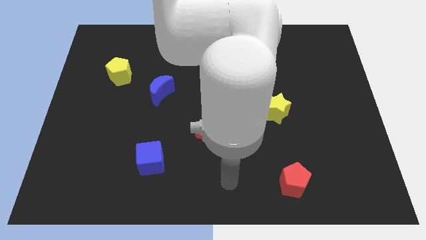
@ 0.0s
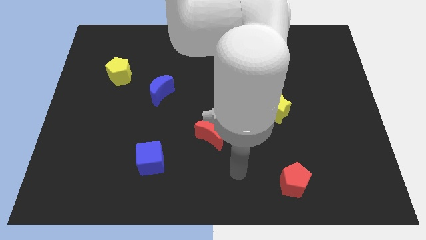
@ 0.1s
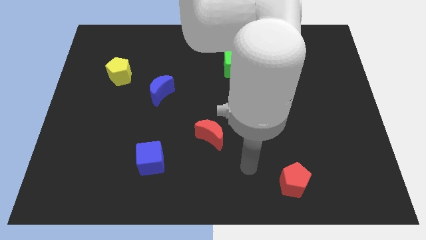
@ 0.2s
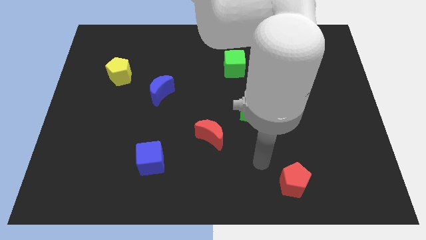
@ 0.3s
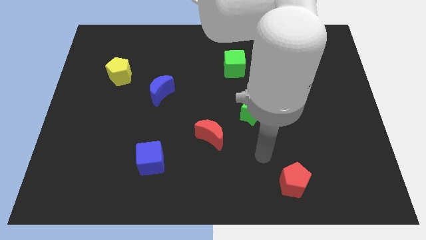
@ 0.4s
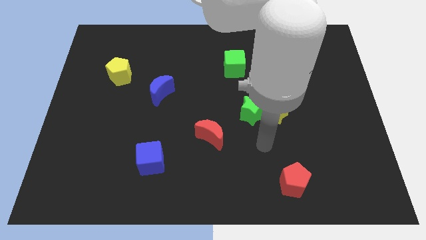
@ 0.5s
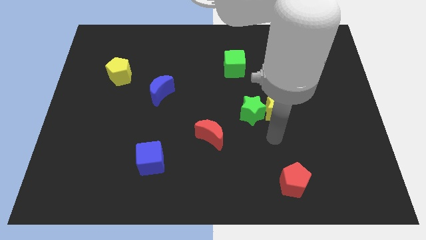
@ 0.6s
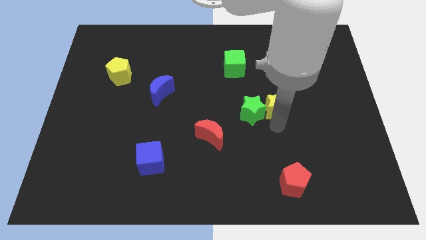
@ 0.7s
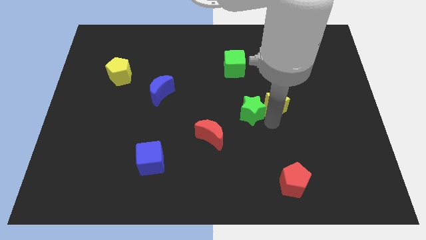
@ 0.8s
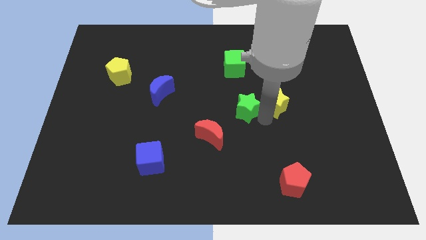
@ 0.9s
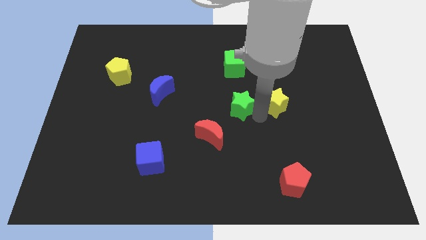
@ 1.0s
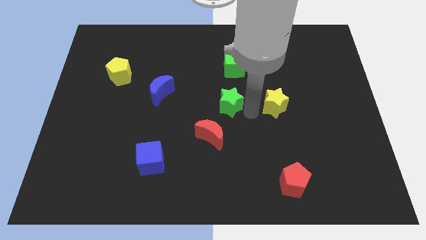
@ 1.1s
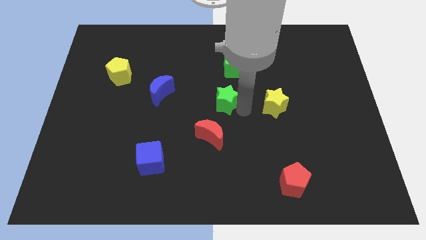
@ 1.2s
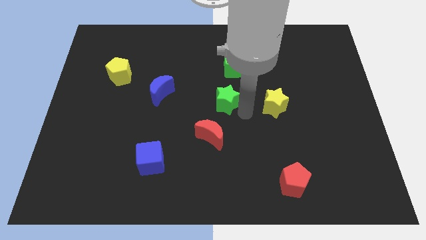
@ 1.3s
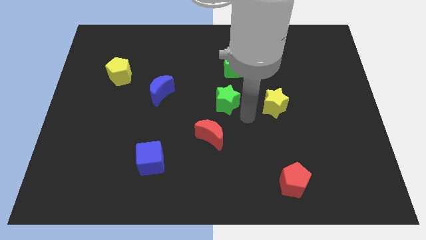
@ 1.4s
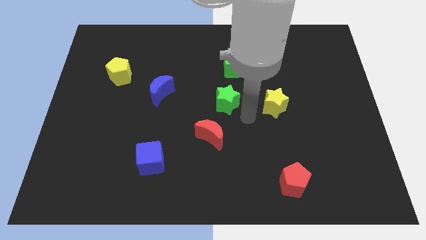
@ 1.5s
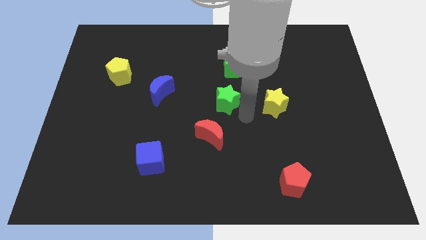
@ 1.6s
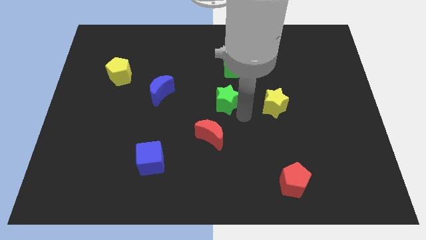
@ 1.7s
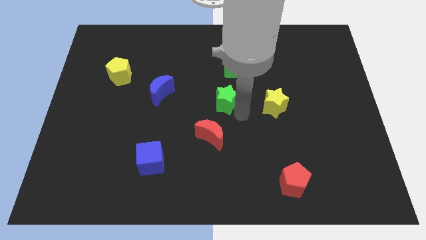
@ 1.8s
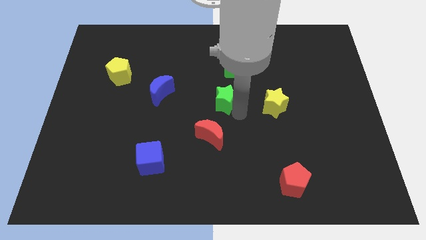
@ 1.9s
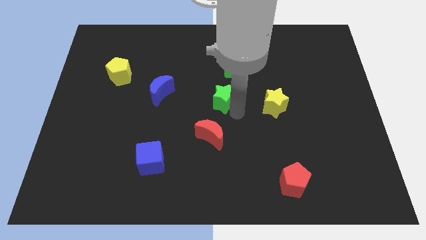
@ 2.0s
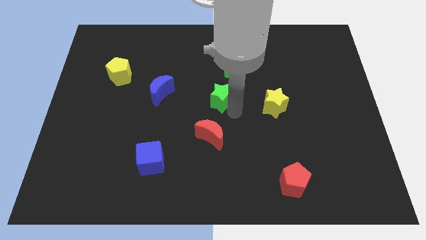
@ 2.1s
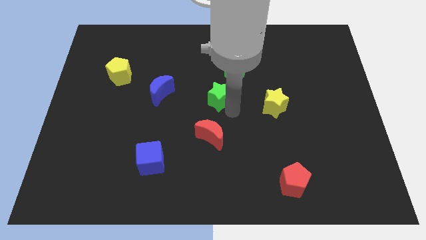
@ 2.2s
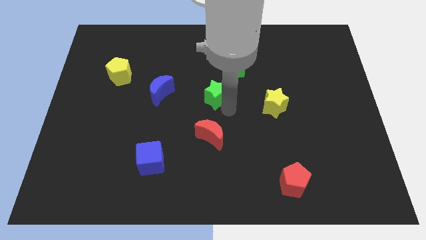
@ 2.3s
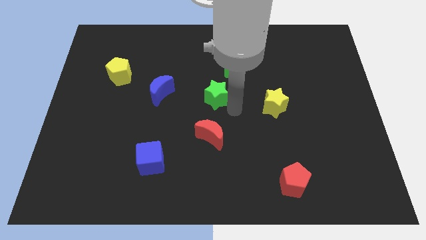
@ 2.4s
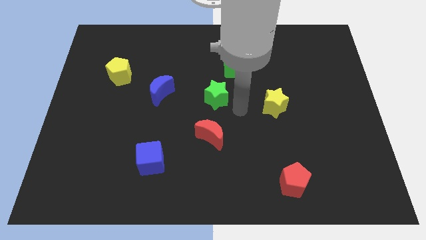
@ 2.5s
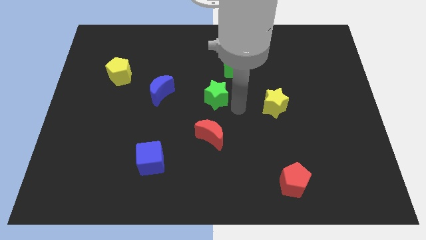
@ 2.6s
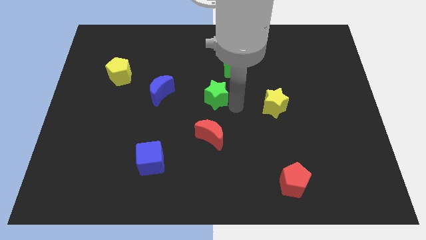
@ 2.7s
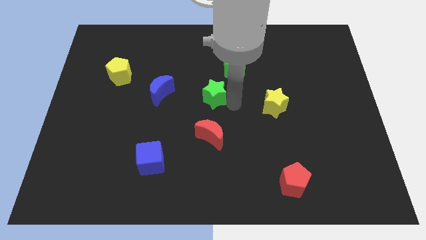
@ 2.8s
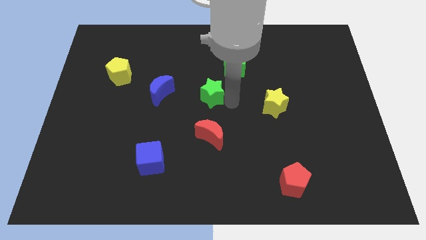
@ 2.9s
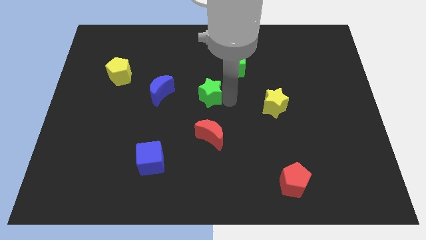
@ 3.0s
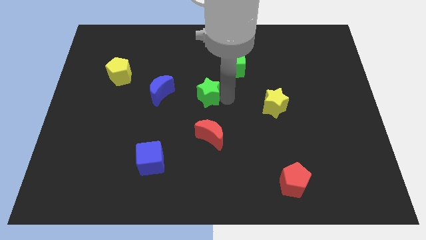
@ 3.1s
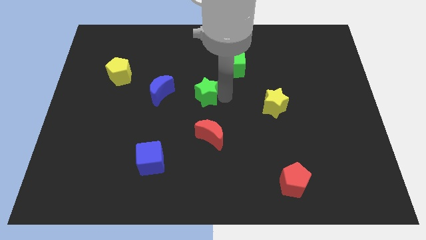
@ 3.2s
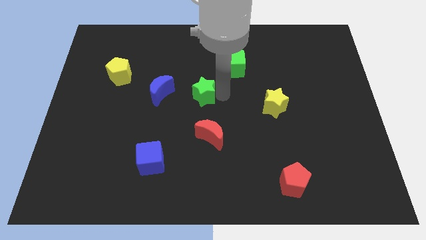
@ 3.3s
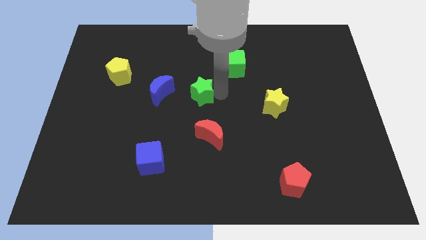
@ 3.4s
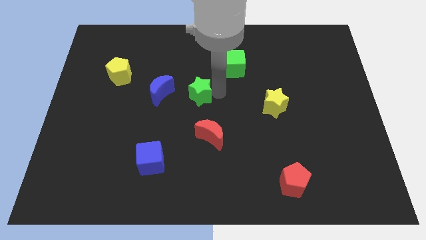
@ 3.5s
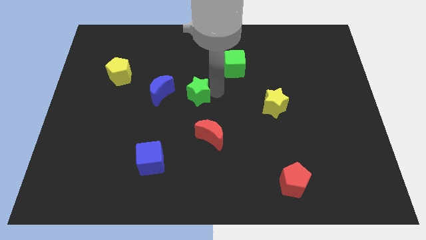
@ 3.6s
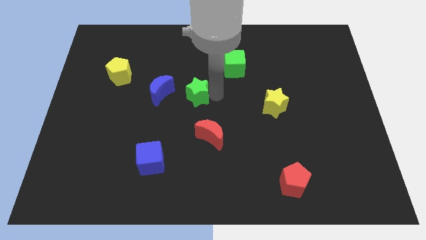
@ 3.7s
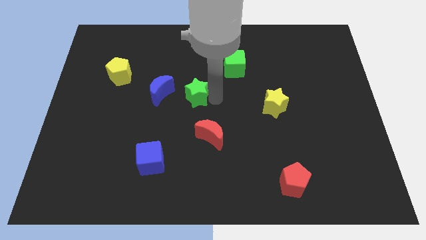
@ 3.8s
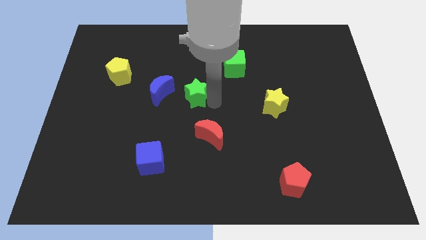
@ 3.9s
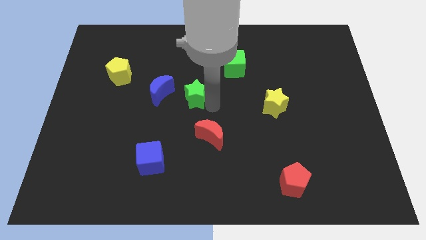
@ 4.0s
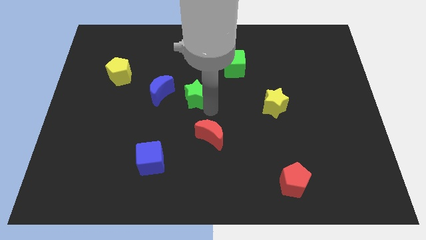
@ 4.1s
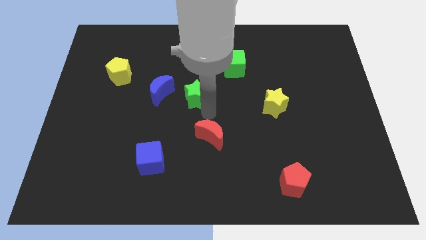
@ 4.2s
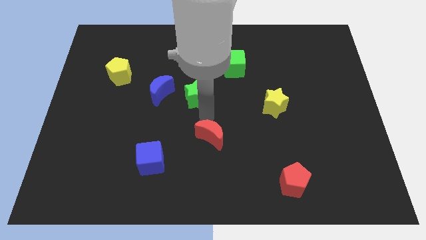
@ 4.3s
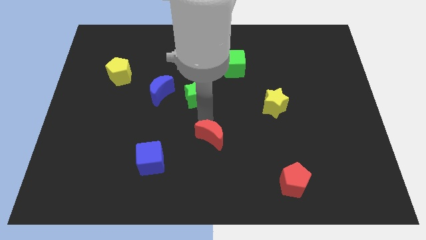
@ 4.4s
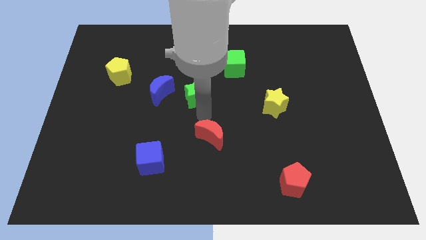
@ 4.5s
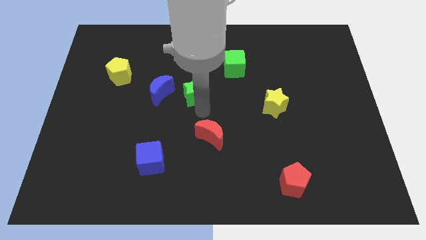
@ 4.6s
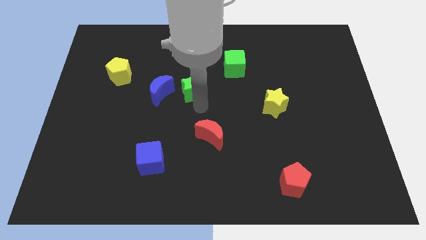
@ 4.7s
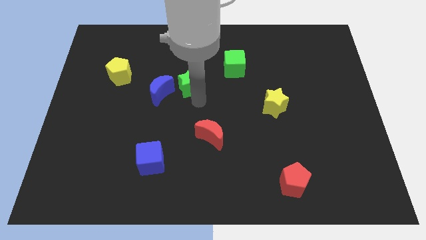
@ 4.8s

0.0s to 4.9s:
slide the green star to the top right of the blue moon

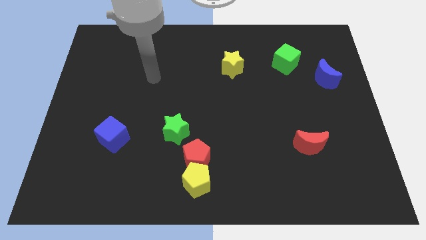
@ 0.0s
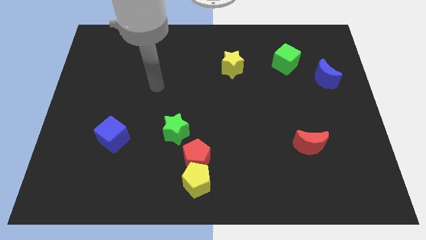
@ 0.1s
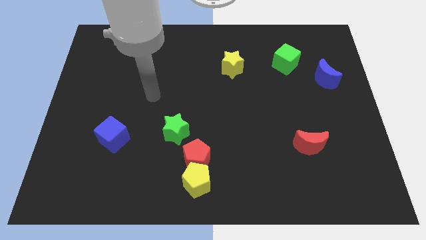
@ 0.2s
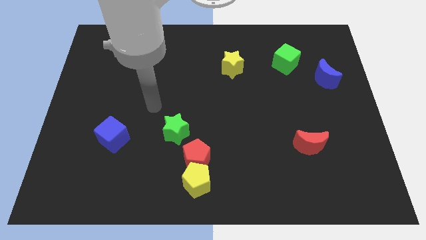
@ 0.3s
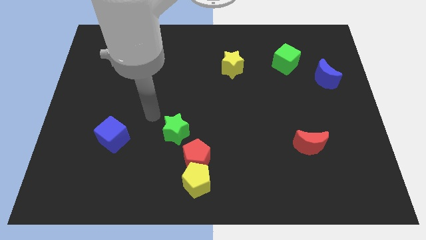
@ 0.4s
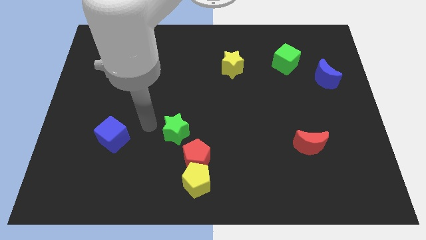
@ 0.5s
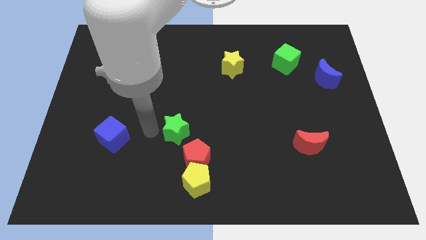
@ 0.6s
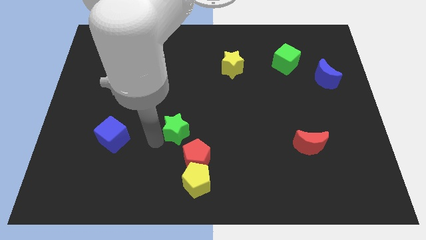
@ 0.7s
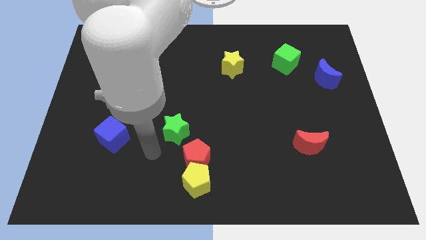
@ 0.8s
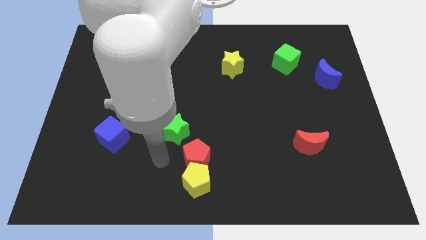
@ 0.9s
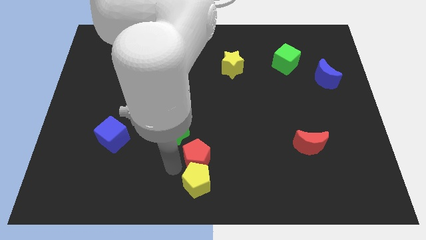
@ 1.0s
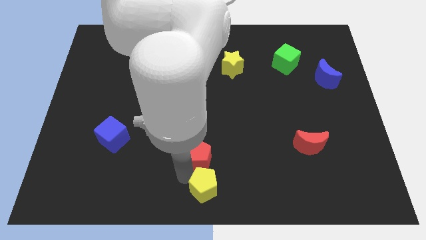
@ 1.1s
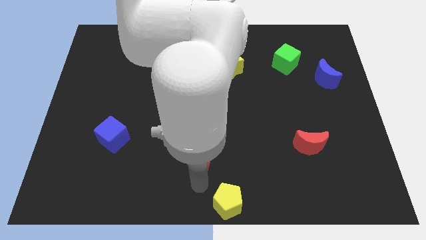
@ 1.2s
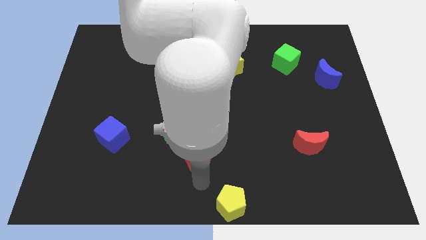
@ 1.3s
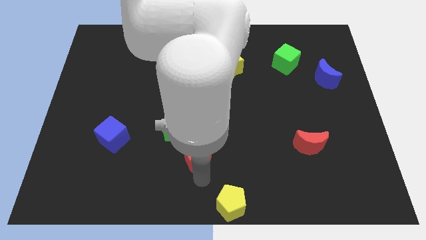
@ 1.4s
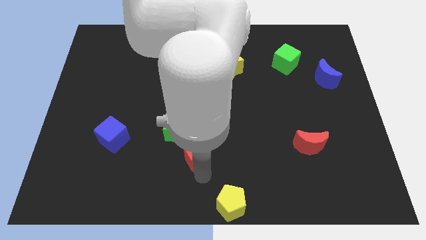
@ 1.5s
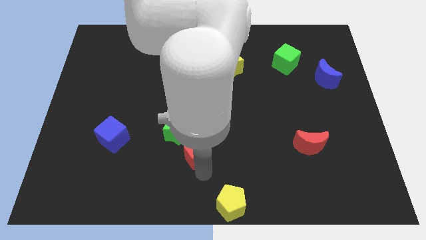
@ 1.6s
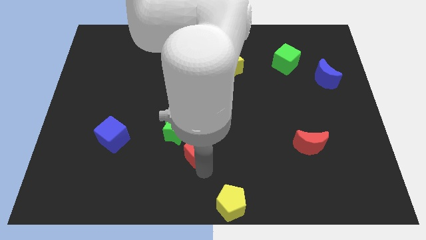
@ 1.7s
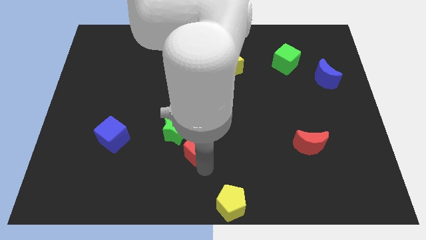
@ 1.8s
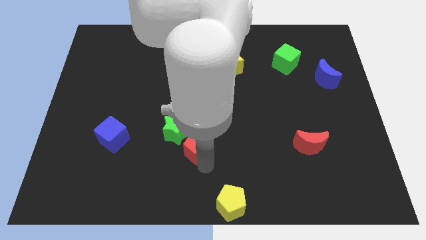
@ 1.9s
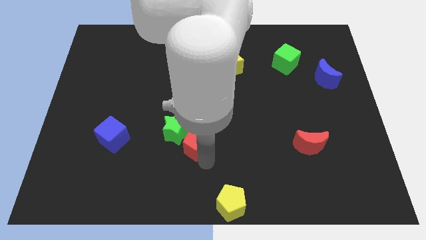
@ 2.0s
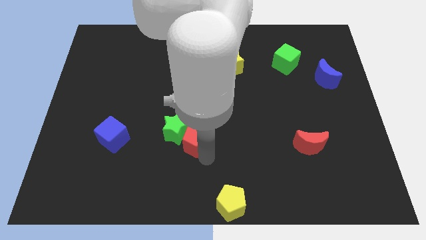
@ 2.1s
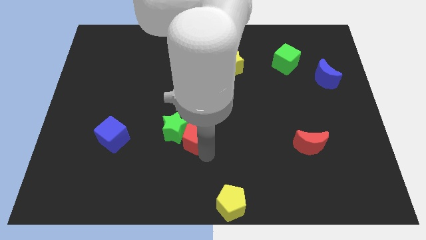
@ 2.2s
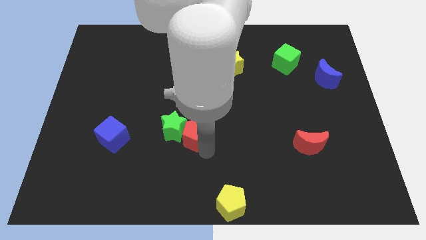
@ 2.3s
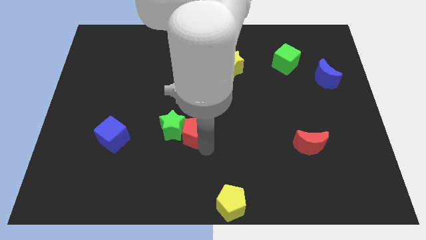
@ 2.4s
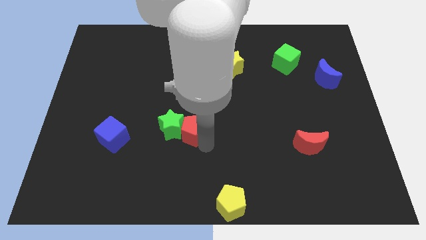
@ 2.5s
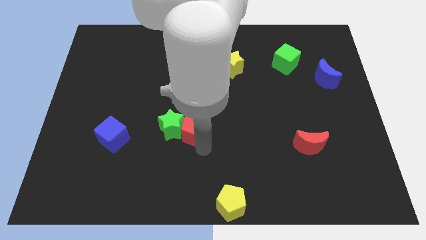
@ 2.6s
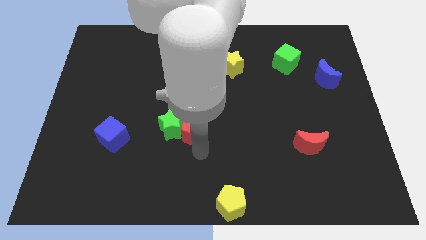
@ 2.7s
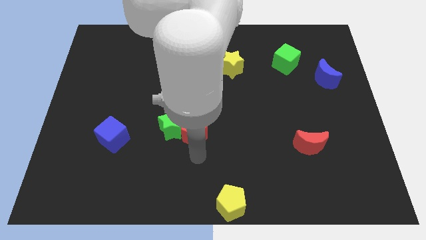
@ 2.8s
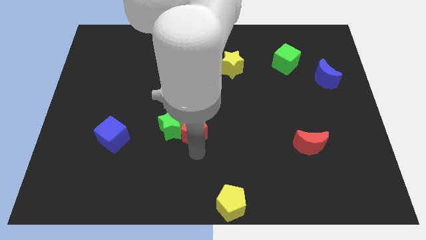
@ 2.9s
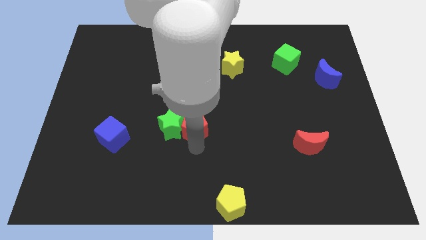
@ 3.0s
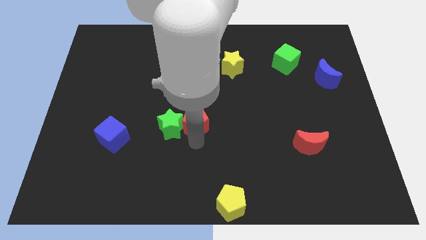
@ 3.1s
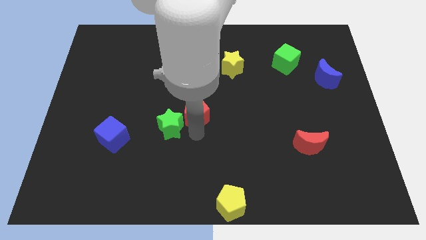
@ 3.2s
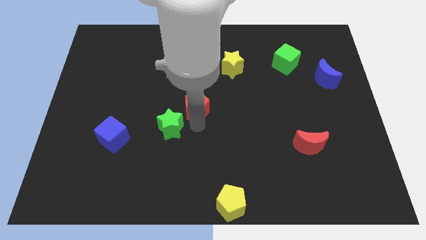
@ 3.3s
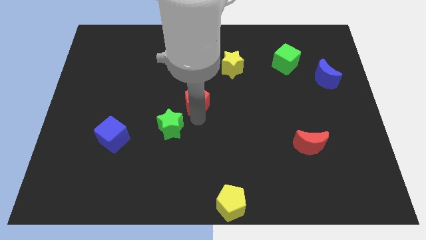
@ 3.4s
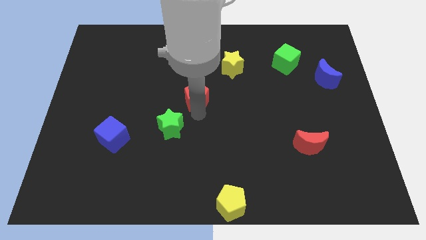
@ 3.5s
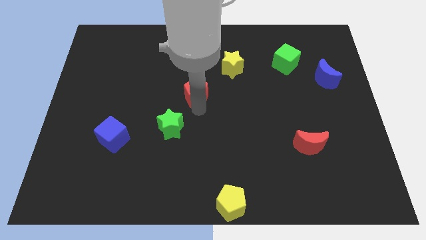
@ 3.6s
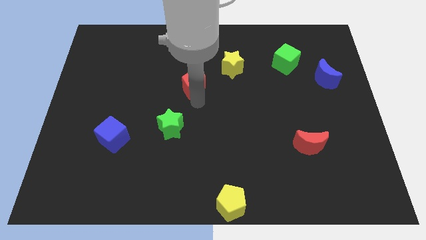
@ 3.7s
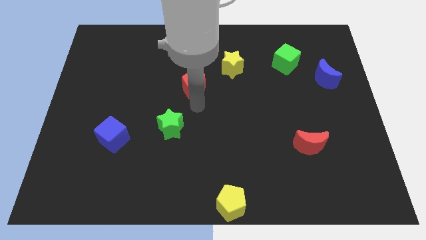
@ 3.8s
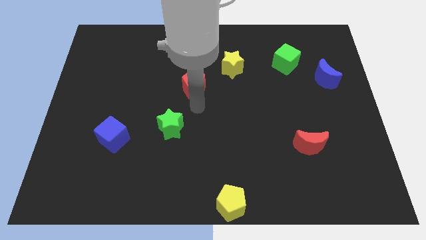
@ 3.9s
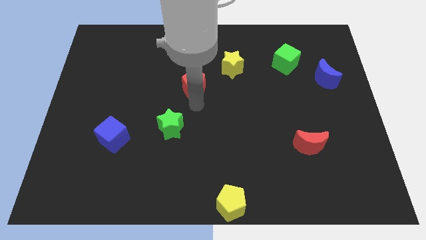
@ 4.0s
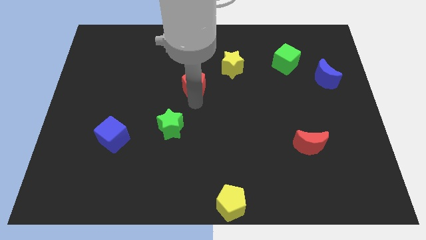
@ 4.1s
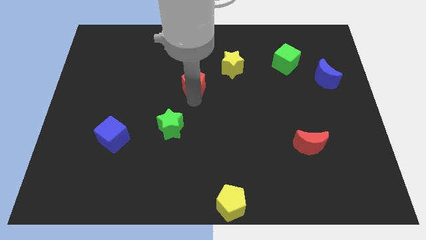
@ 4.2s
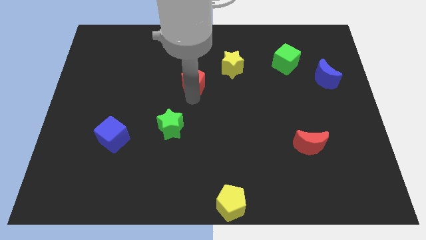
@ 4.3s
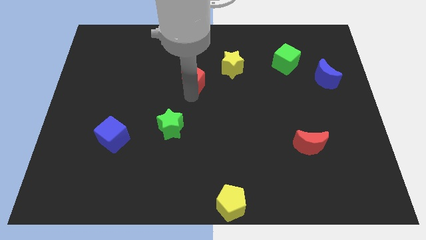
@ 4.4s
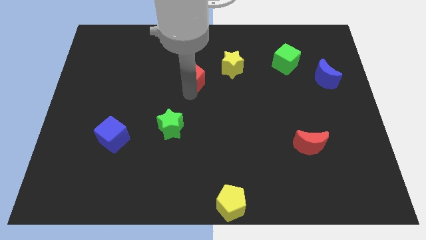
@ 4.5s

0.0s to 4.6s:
put the red pentagon just left of the yellow star
